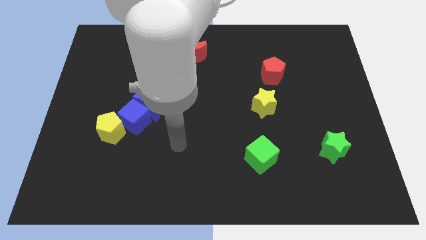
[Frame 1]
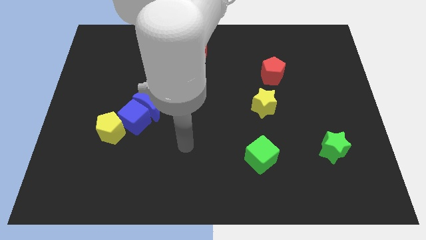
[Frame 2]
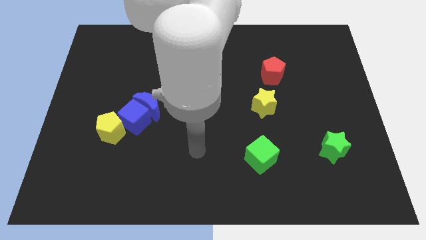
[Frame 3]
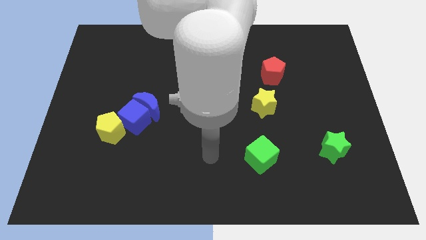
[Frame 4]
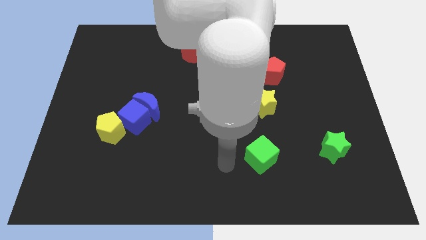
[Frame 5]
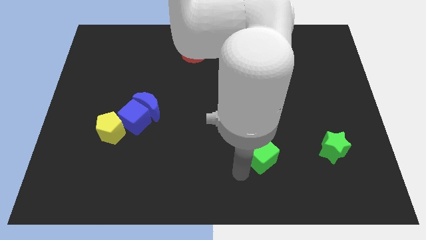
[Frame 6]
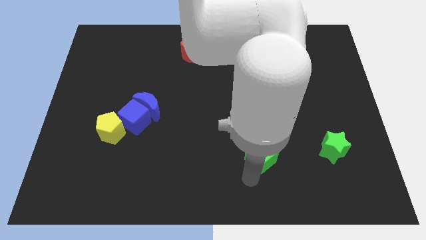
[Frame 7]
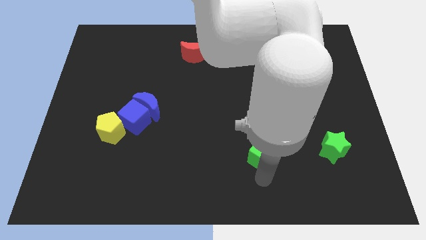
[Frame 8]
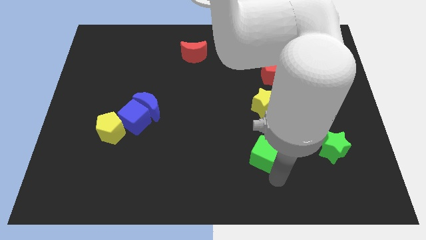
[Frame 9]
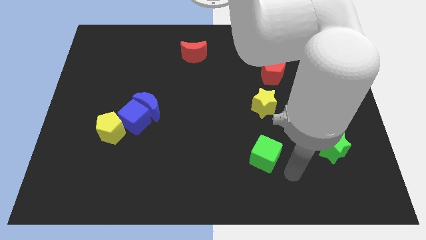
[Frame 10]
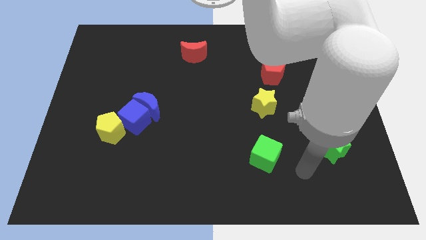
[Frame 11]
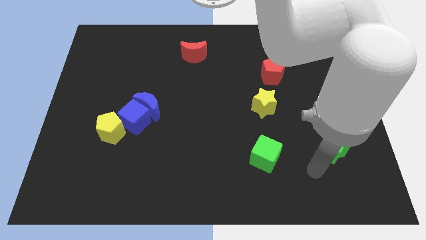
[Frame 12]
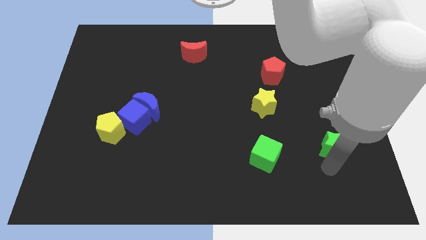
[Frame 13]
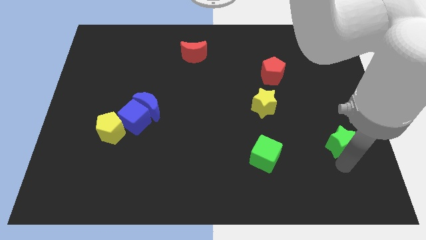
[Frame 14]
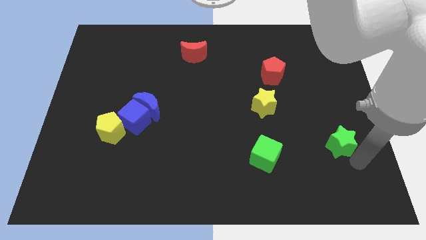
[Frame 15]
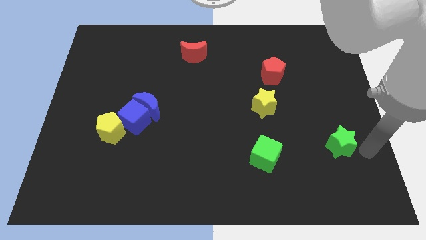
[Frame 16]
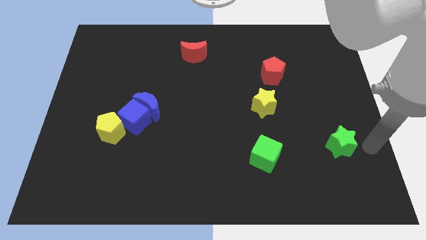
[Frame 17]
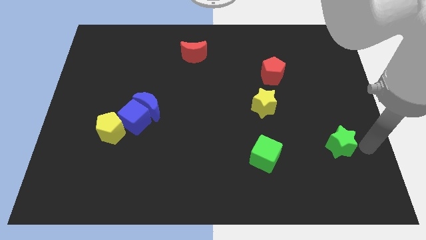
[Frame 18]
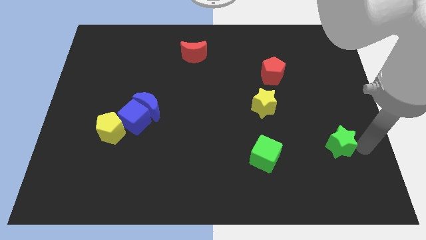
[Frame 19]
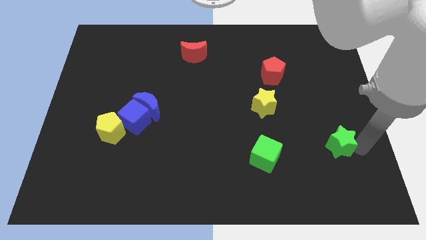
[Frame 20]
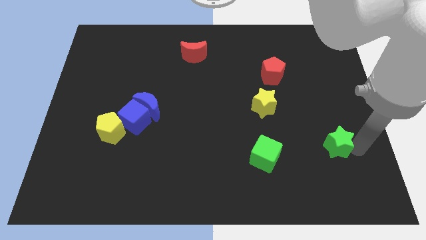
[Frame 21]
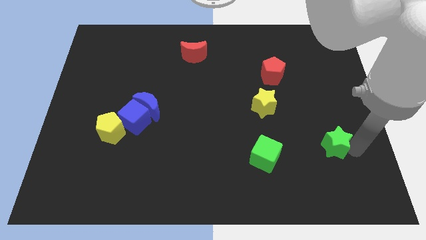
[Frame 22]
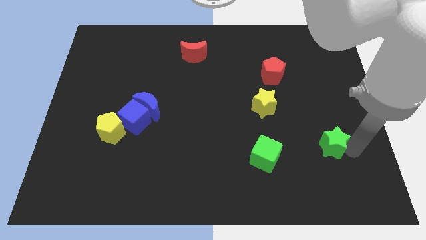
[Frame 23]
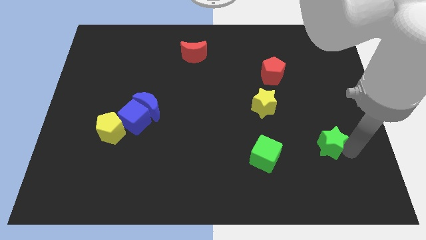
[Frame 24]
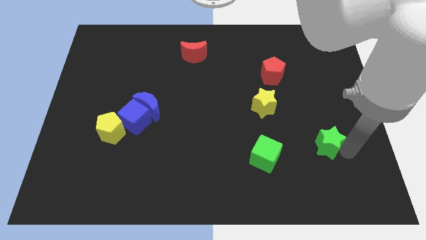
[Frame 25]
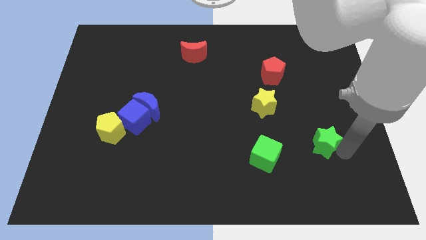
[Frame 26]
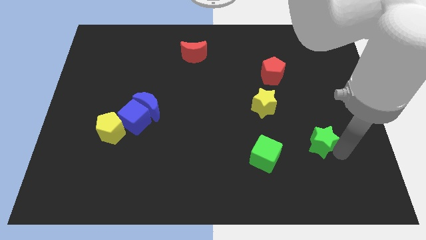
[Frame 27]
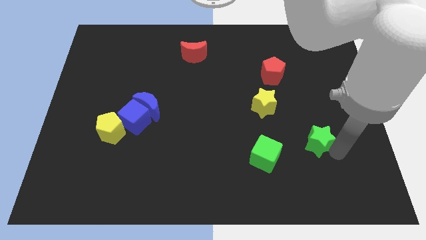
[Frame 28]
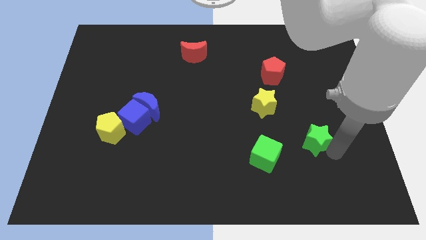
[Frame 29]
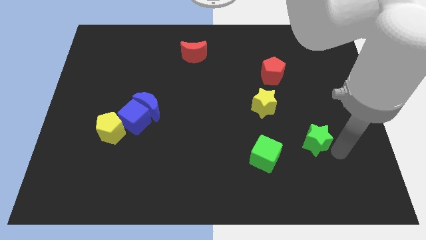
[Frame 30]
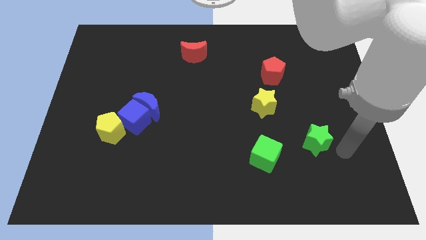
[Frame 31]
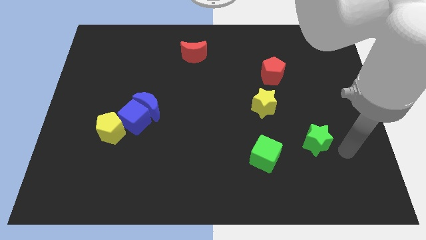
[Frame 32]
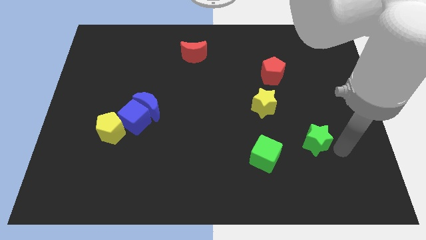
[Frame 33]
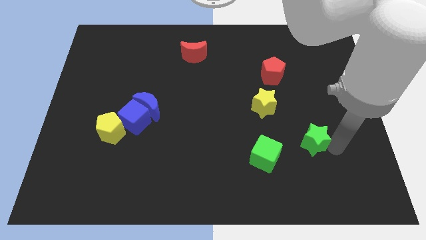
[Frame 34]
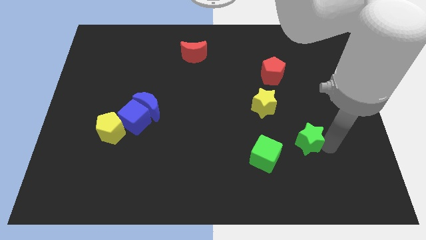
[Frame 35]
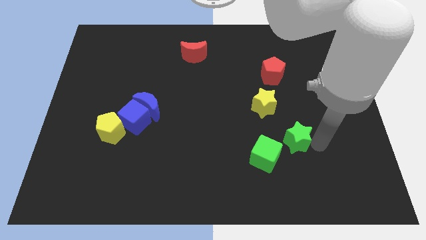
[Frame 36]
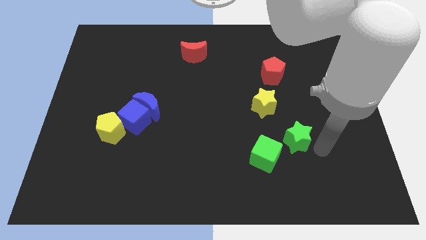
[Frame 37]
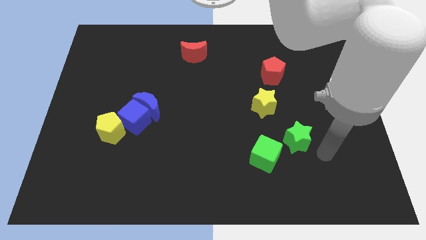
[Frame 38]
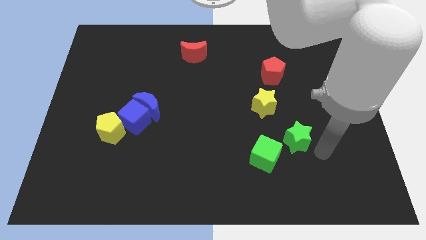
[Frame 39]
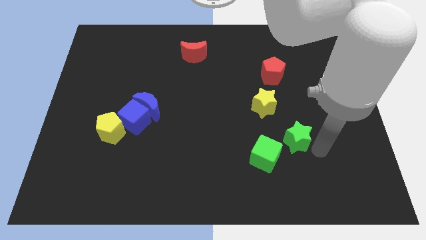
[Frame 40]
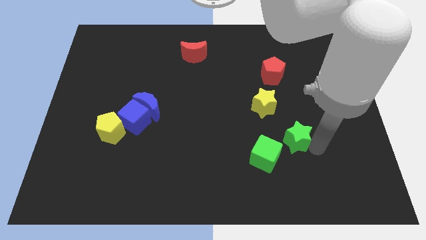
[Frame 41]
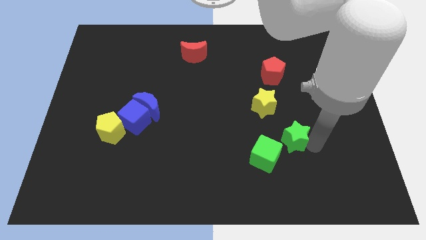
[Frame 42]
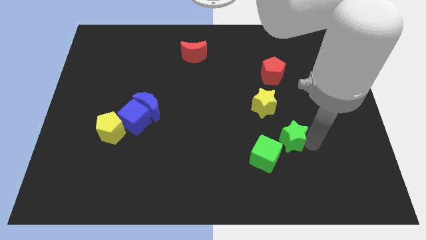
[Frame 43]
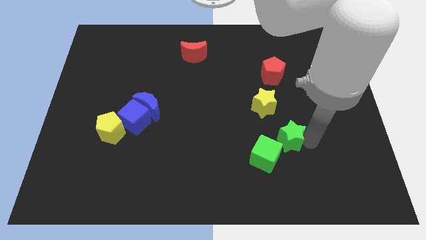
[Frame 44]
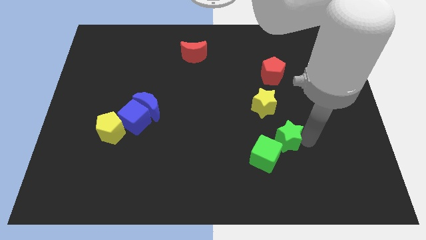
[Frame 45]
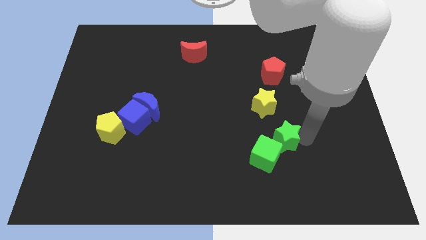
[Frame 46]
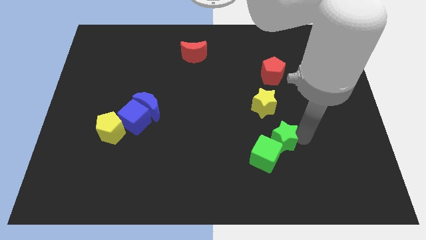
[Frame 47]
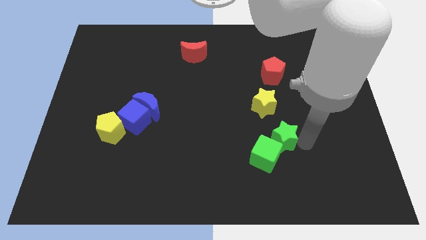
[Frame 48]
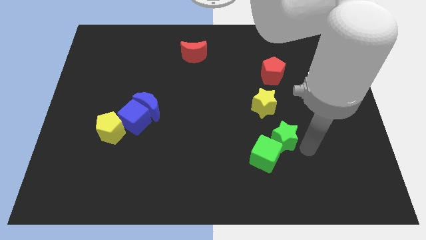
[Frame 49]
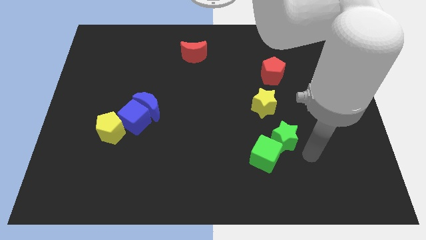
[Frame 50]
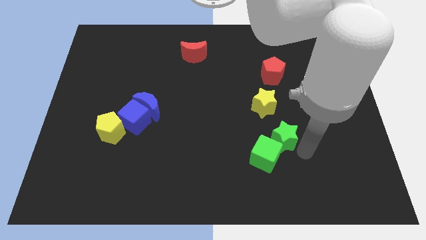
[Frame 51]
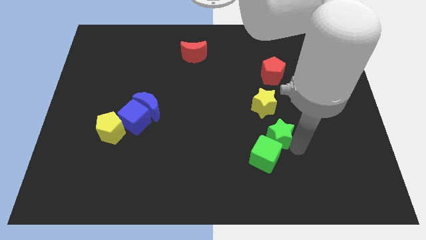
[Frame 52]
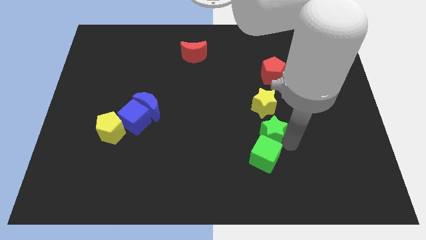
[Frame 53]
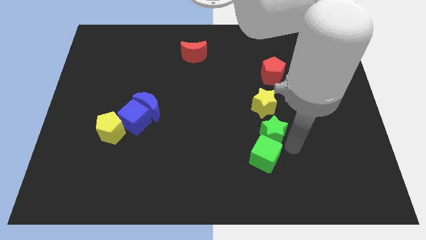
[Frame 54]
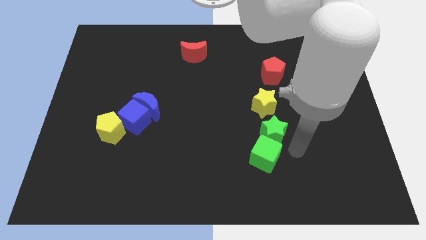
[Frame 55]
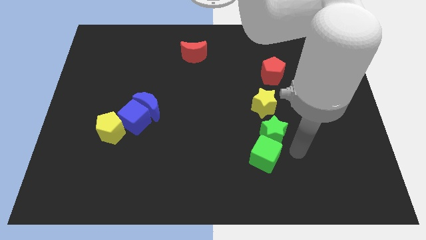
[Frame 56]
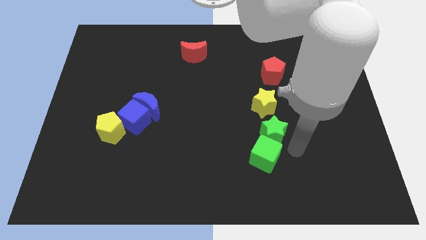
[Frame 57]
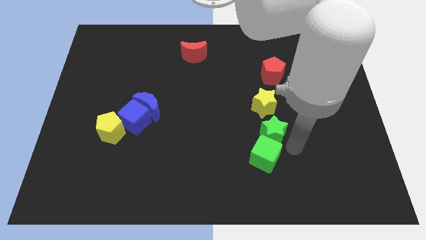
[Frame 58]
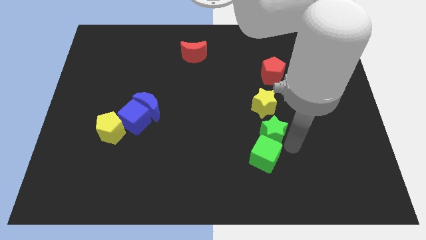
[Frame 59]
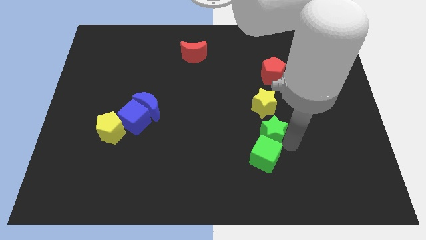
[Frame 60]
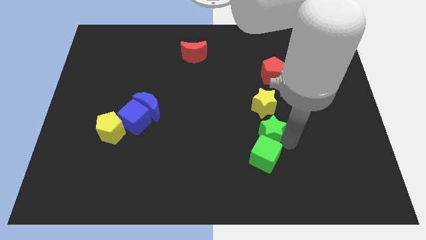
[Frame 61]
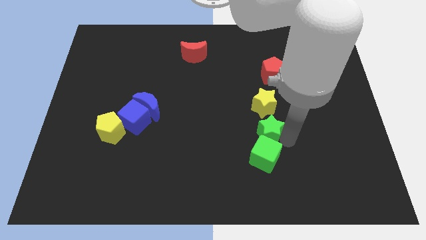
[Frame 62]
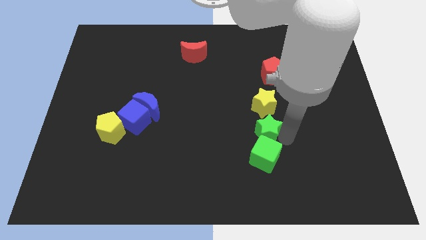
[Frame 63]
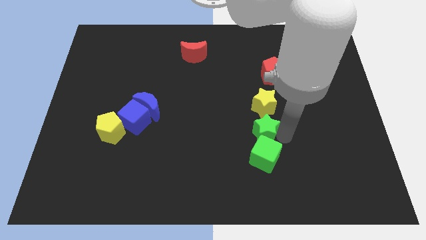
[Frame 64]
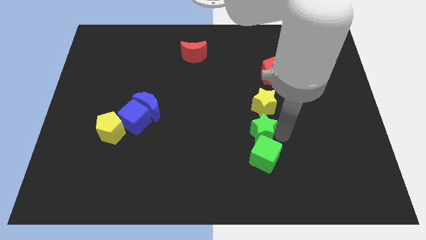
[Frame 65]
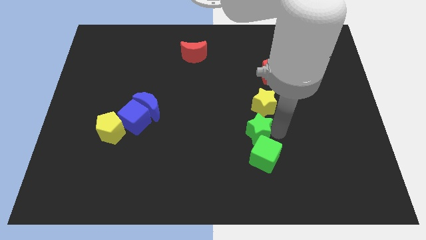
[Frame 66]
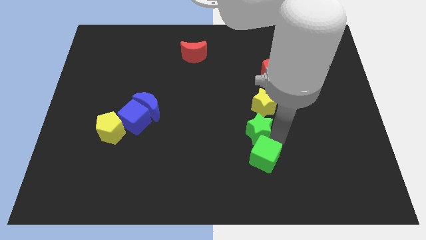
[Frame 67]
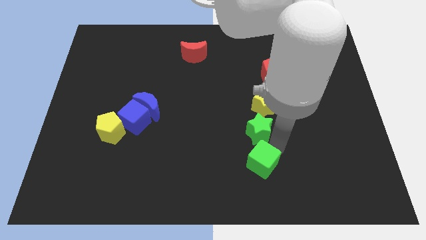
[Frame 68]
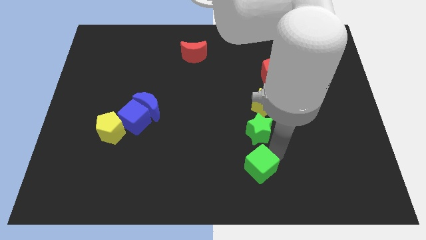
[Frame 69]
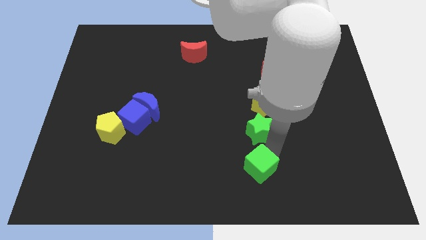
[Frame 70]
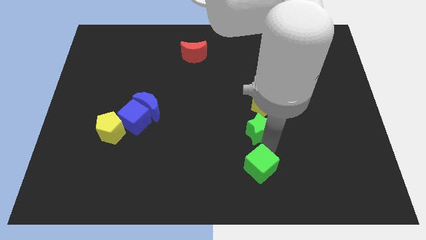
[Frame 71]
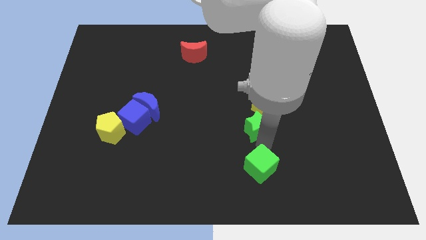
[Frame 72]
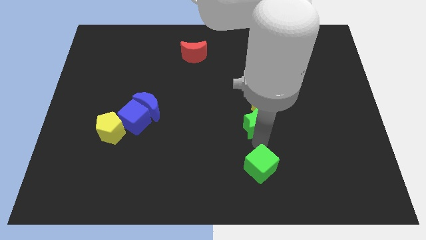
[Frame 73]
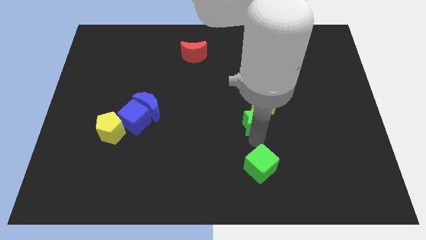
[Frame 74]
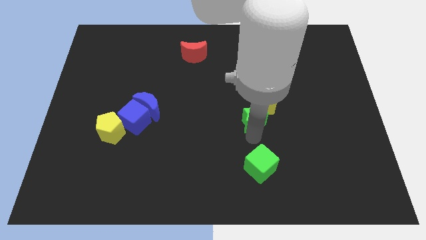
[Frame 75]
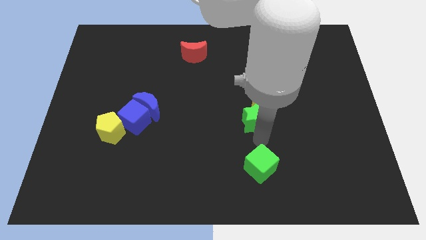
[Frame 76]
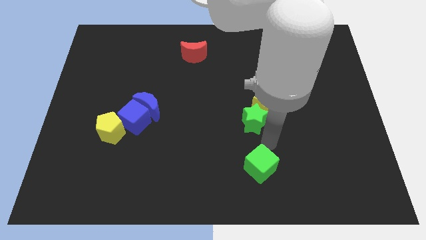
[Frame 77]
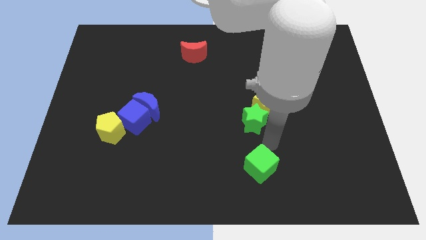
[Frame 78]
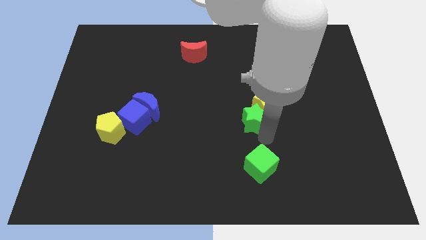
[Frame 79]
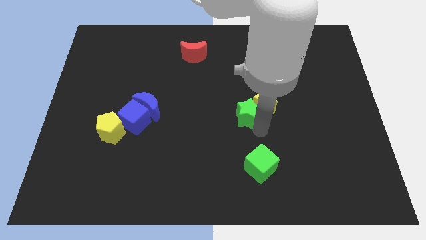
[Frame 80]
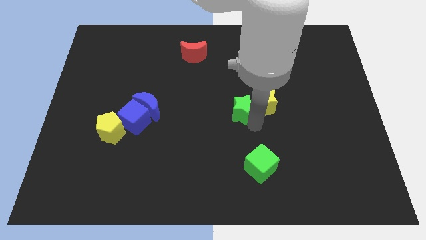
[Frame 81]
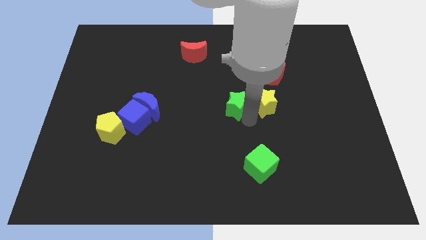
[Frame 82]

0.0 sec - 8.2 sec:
push the green star up and to the left diagonally

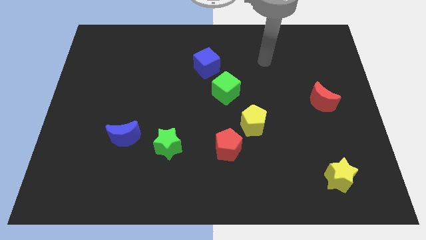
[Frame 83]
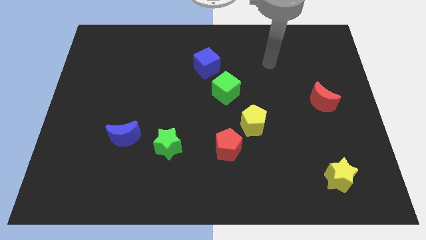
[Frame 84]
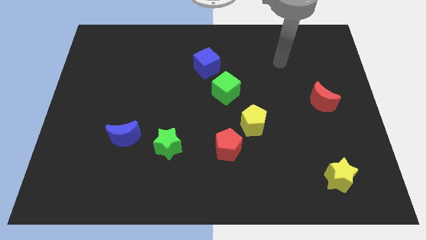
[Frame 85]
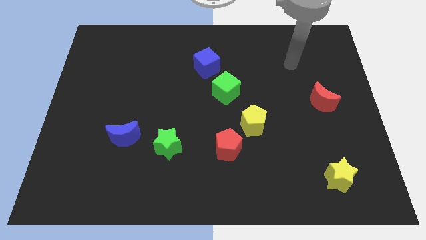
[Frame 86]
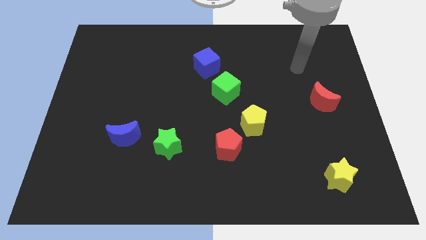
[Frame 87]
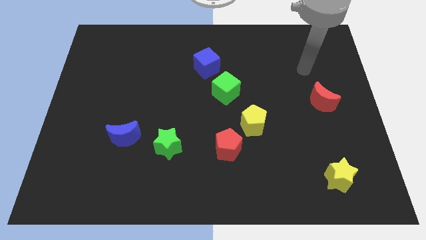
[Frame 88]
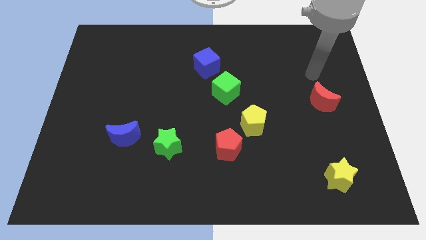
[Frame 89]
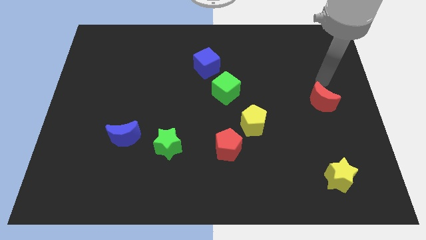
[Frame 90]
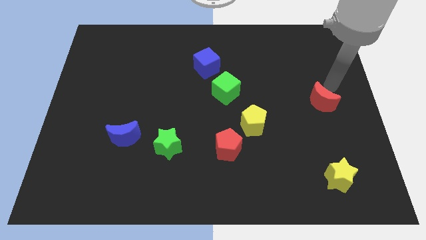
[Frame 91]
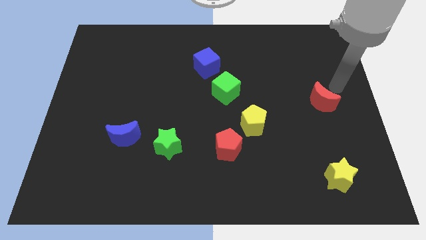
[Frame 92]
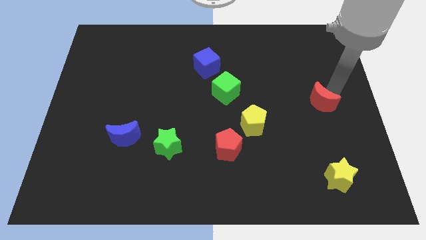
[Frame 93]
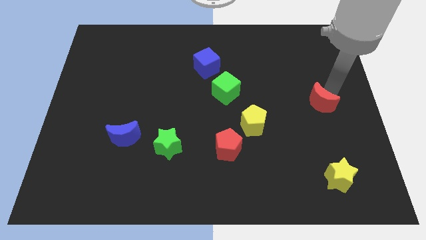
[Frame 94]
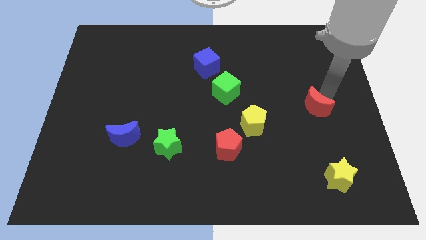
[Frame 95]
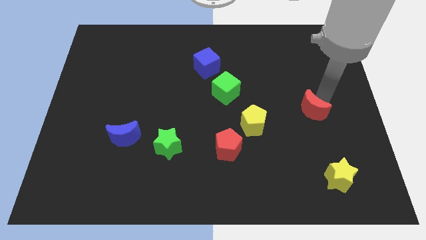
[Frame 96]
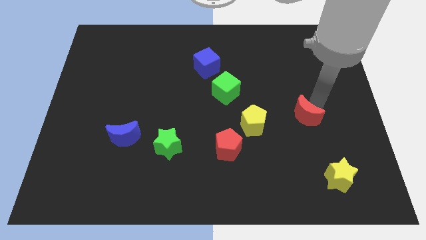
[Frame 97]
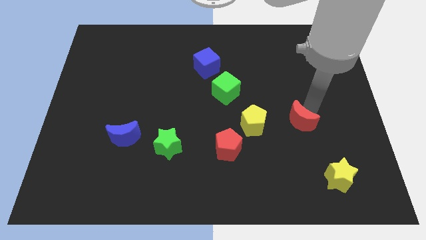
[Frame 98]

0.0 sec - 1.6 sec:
slightly slide the red moon downwards and left
